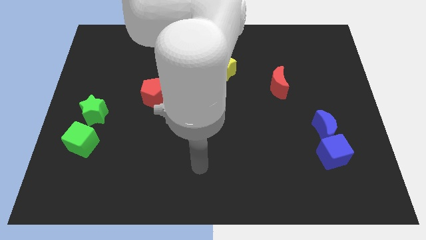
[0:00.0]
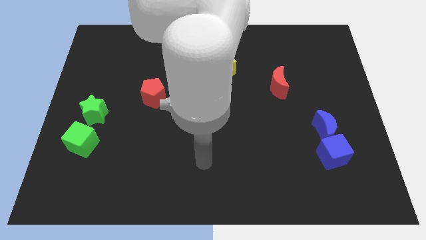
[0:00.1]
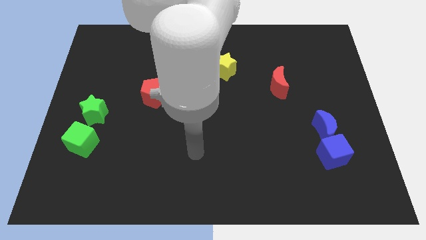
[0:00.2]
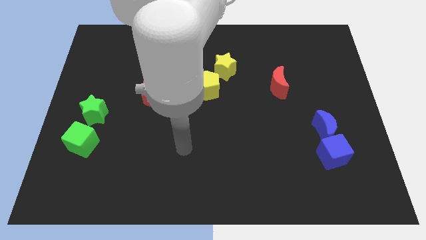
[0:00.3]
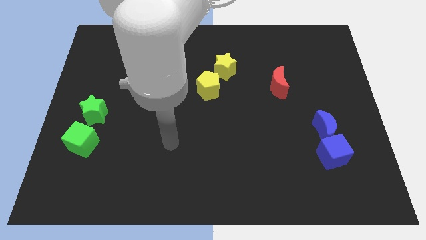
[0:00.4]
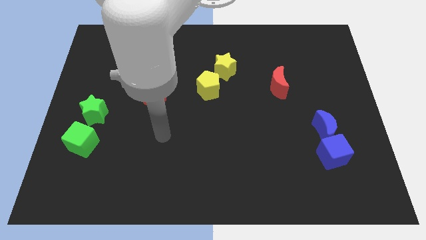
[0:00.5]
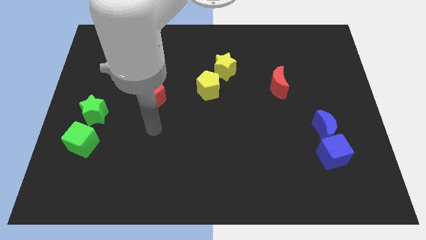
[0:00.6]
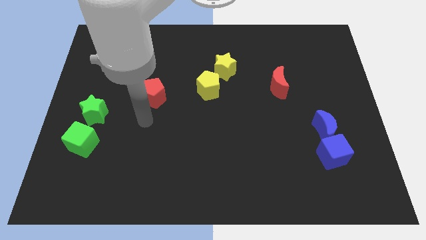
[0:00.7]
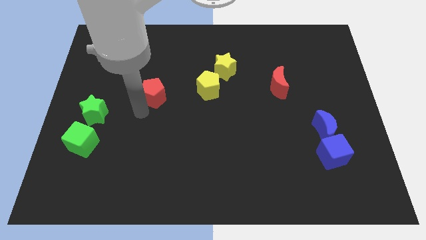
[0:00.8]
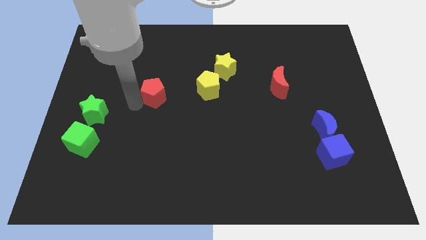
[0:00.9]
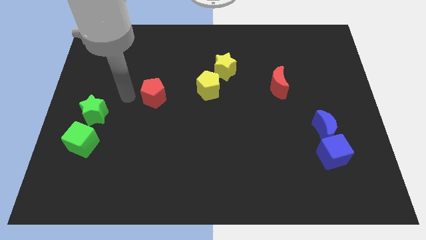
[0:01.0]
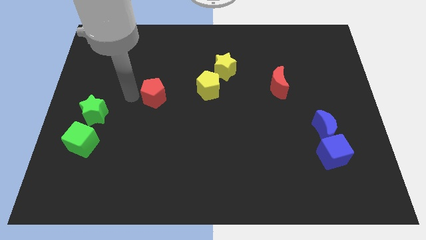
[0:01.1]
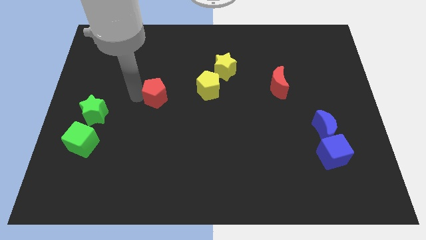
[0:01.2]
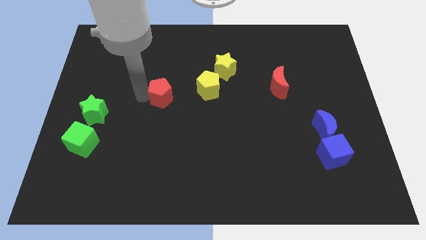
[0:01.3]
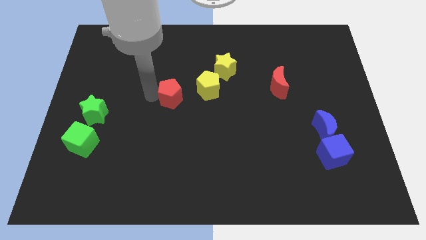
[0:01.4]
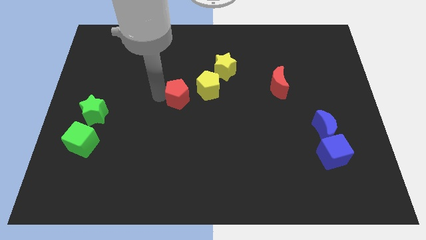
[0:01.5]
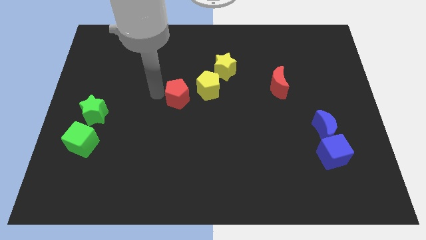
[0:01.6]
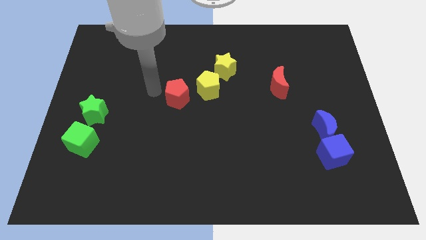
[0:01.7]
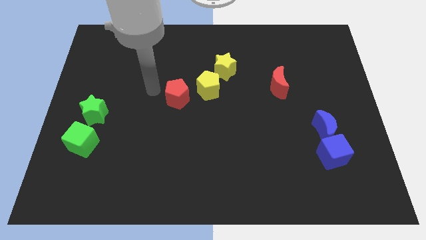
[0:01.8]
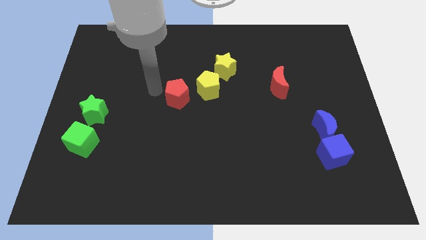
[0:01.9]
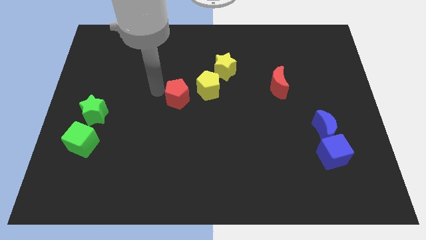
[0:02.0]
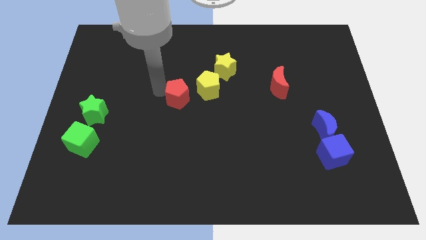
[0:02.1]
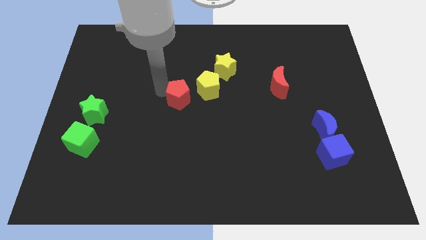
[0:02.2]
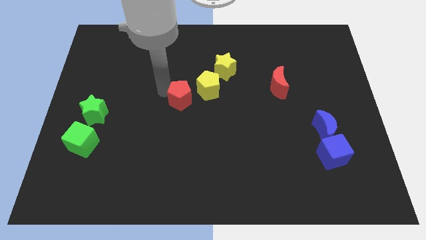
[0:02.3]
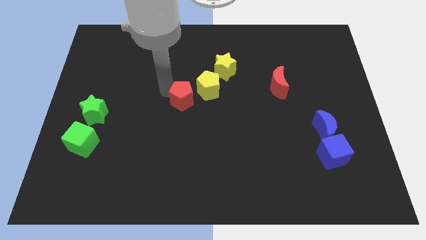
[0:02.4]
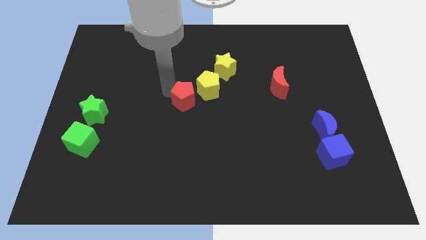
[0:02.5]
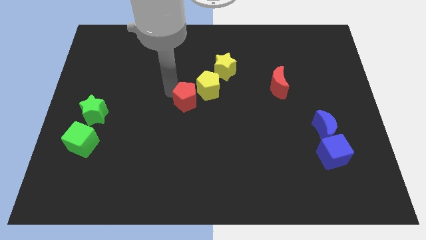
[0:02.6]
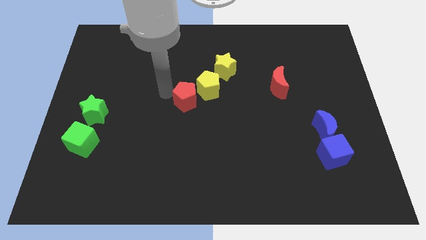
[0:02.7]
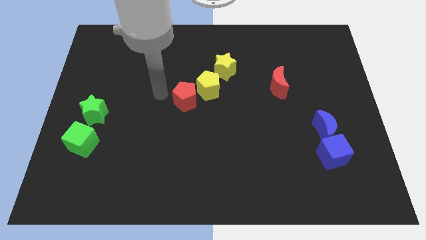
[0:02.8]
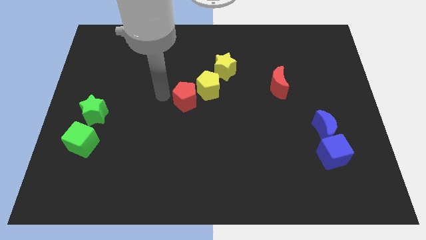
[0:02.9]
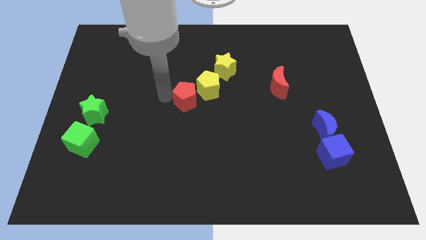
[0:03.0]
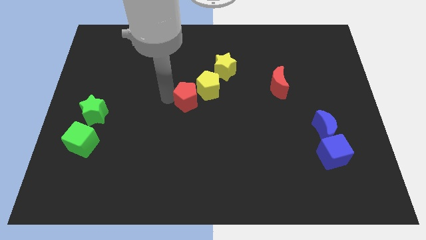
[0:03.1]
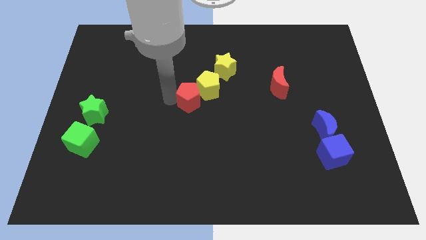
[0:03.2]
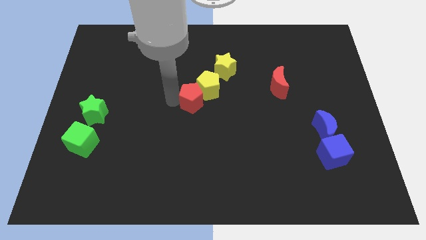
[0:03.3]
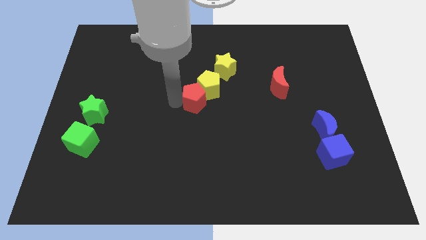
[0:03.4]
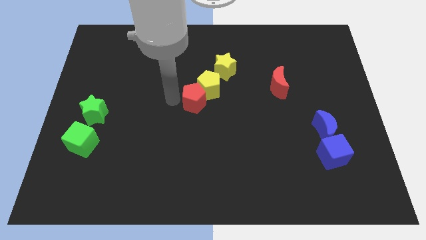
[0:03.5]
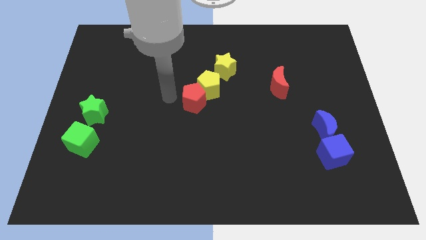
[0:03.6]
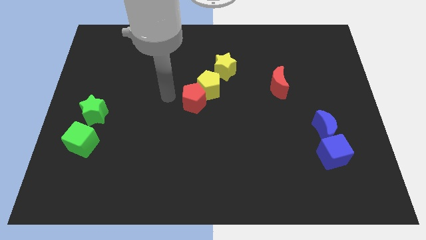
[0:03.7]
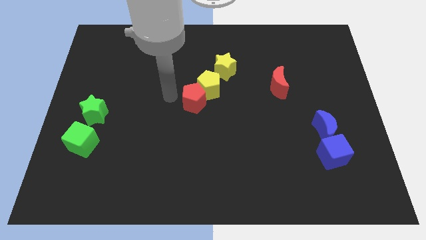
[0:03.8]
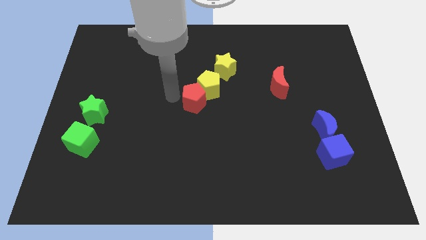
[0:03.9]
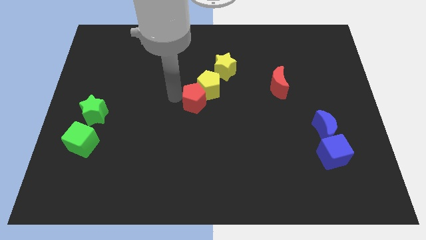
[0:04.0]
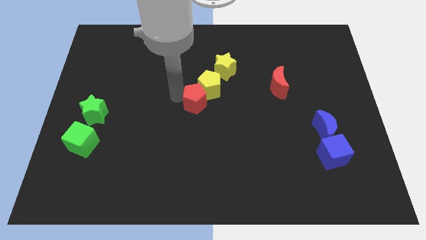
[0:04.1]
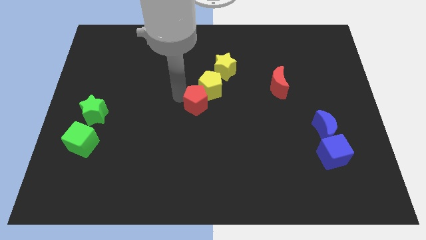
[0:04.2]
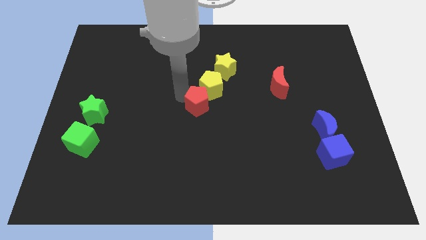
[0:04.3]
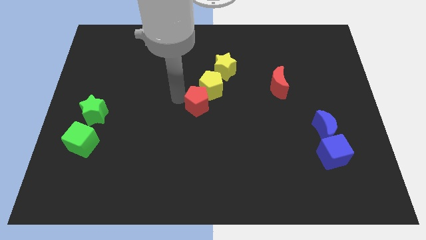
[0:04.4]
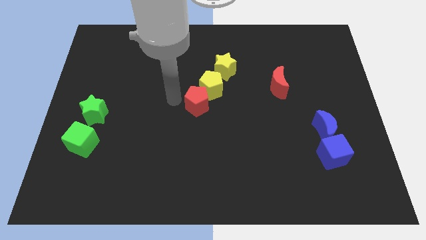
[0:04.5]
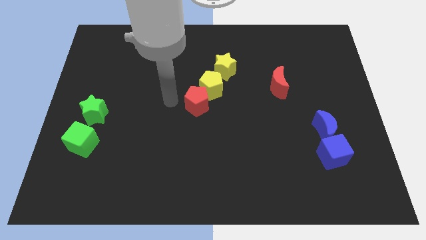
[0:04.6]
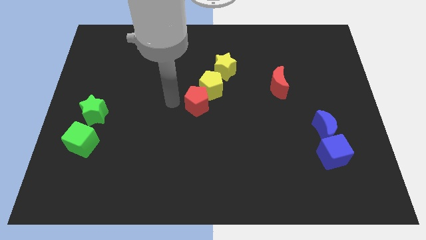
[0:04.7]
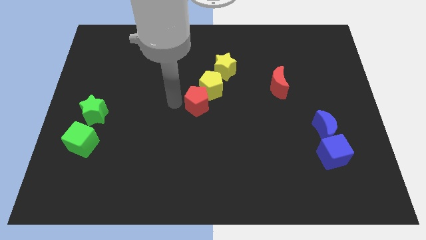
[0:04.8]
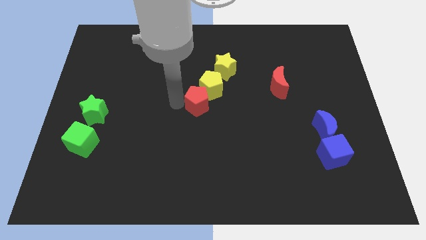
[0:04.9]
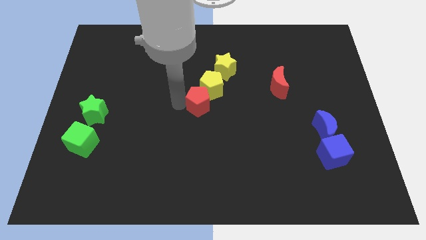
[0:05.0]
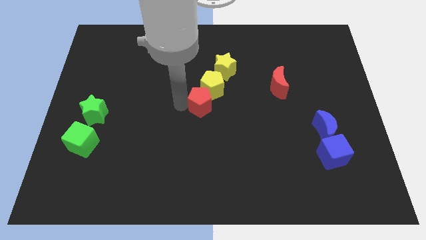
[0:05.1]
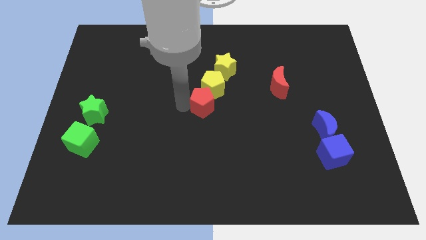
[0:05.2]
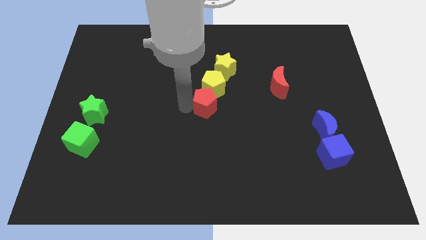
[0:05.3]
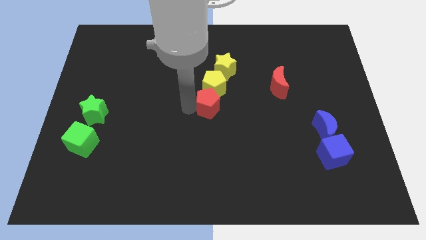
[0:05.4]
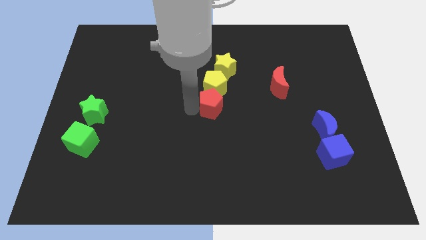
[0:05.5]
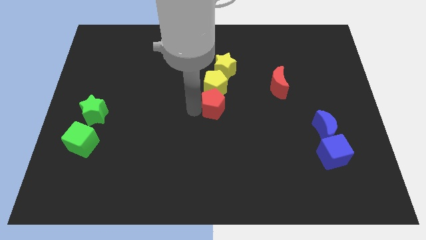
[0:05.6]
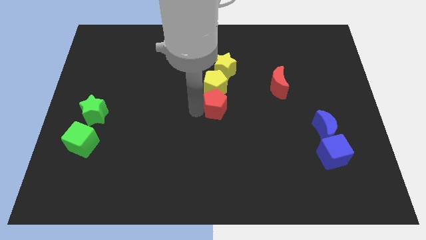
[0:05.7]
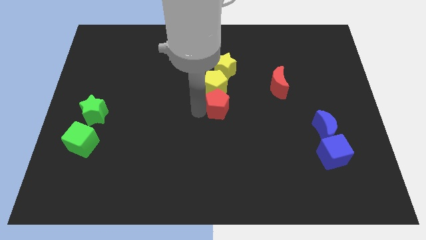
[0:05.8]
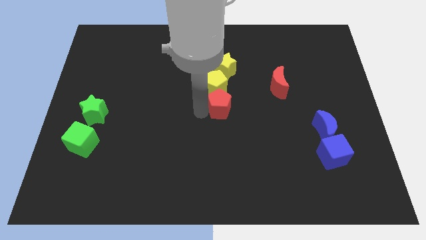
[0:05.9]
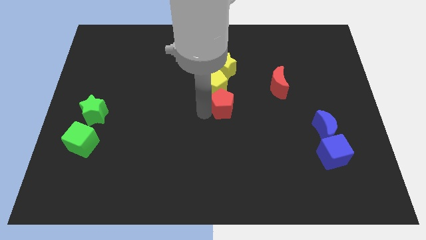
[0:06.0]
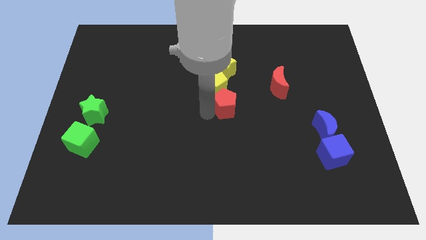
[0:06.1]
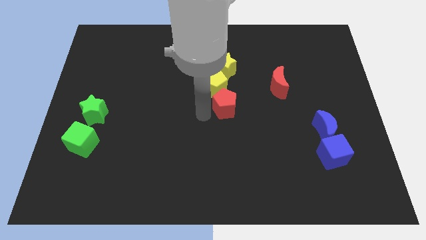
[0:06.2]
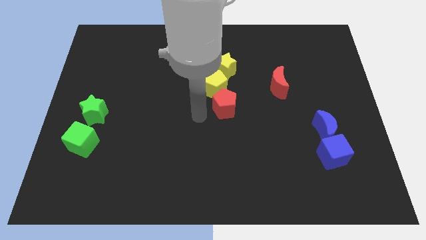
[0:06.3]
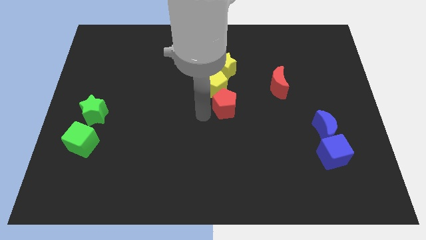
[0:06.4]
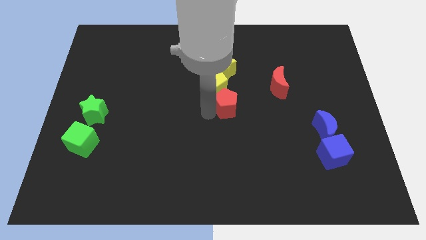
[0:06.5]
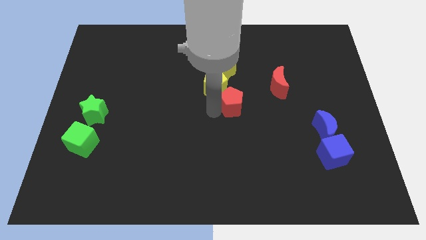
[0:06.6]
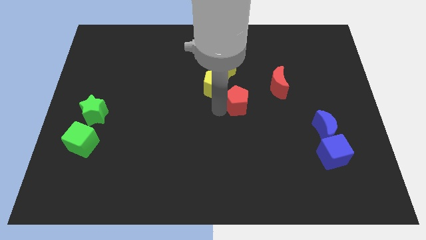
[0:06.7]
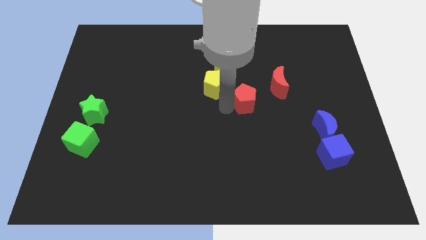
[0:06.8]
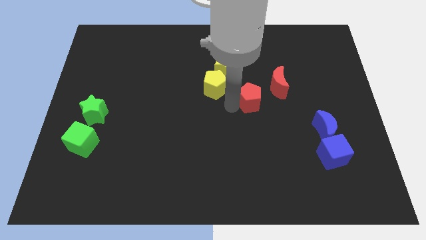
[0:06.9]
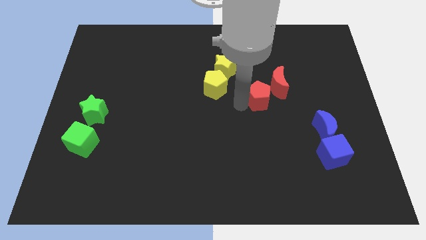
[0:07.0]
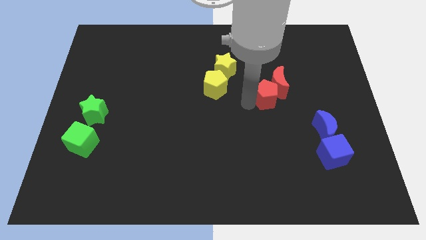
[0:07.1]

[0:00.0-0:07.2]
slide the red pentagon close to the red moon
